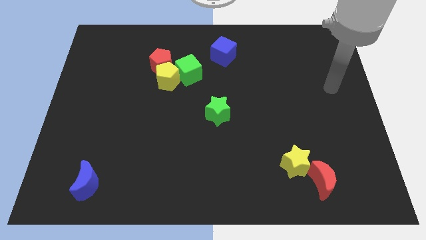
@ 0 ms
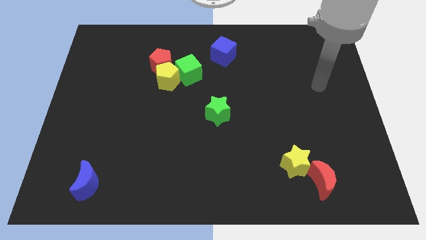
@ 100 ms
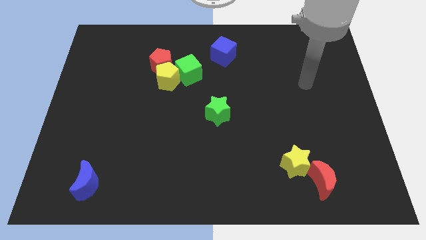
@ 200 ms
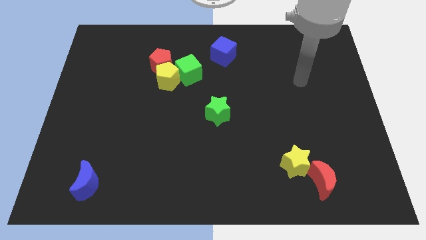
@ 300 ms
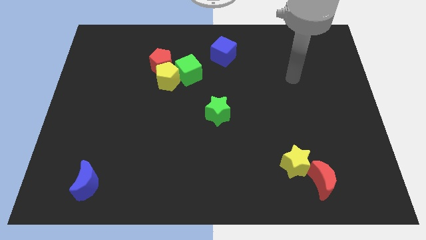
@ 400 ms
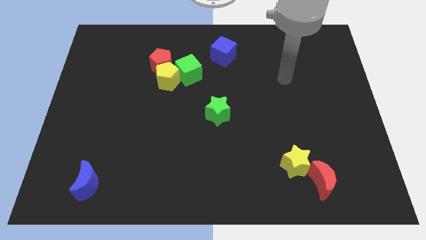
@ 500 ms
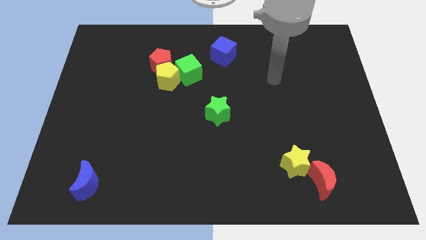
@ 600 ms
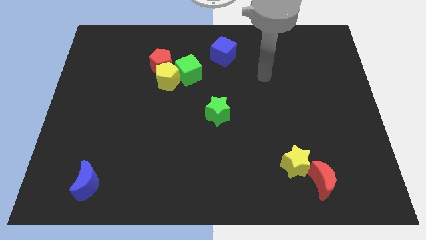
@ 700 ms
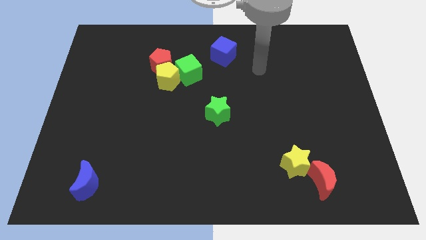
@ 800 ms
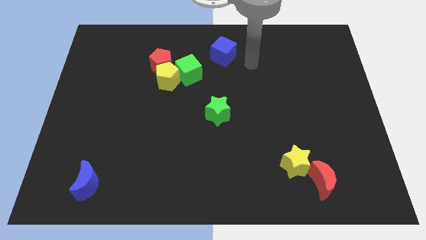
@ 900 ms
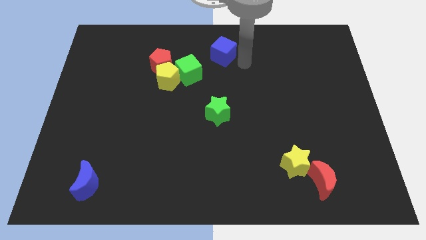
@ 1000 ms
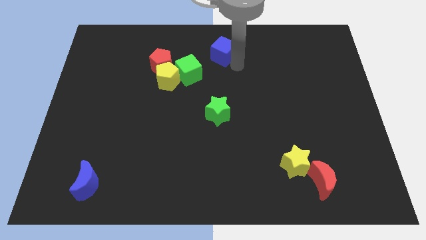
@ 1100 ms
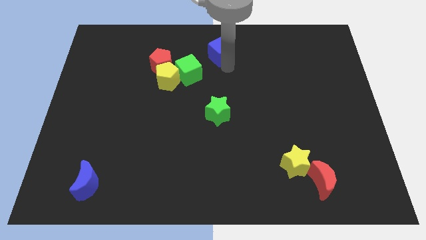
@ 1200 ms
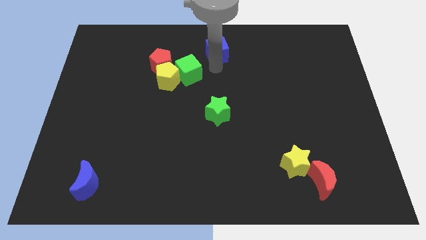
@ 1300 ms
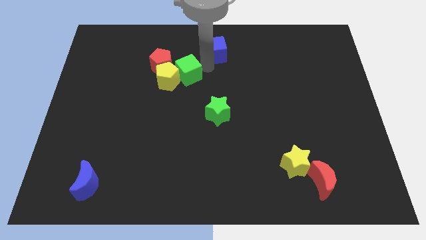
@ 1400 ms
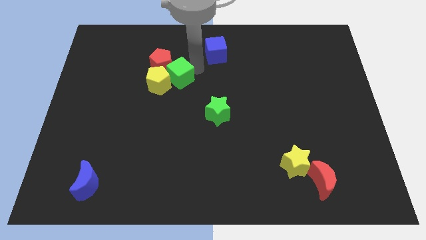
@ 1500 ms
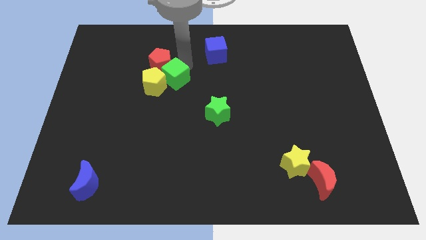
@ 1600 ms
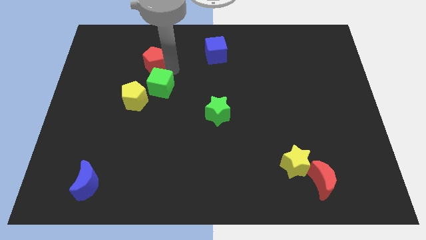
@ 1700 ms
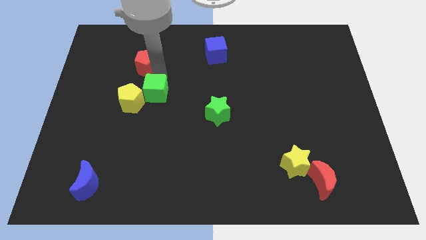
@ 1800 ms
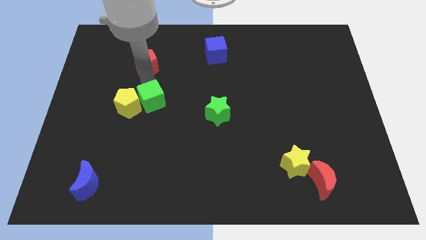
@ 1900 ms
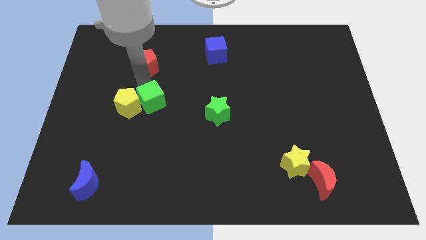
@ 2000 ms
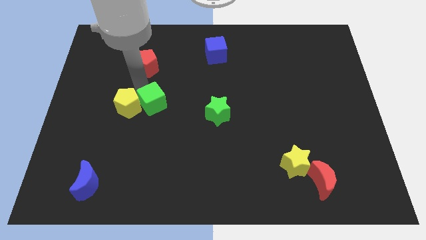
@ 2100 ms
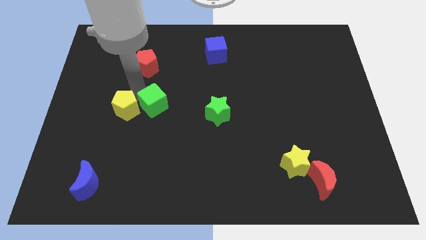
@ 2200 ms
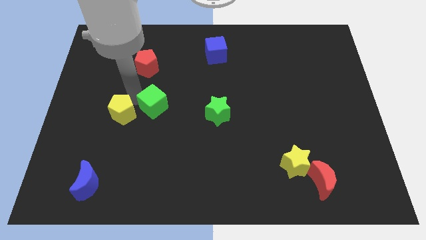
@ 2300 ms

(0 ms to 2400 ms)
separate the yellow pentagon from the red pentagon and green cube

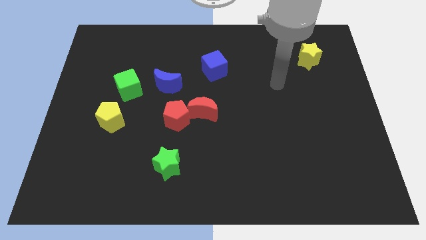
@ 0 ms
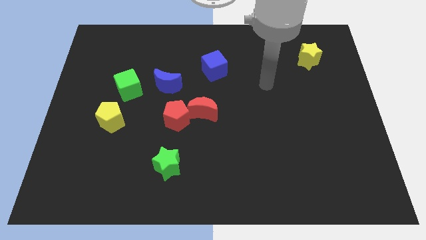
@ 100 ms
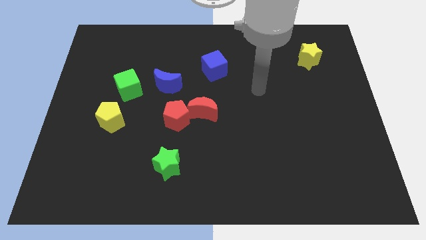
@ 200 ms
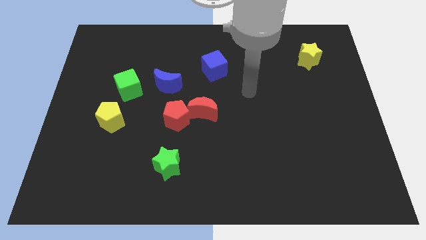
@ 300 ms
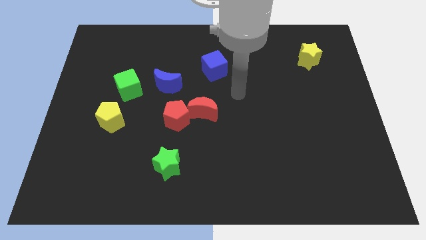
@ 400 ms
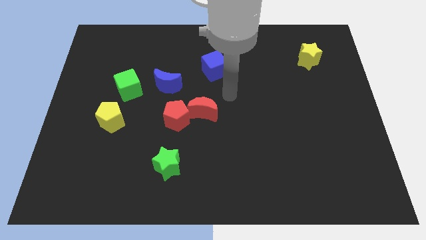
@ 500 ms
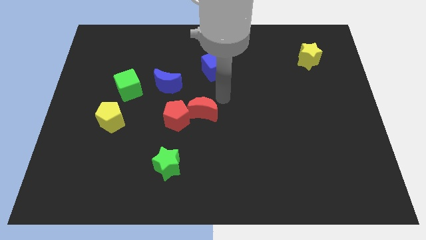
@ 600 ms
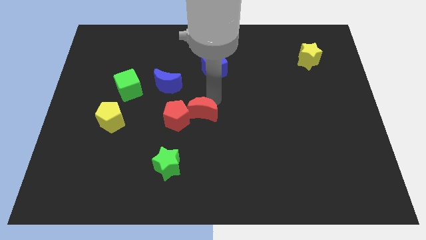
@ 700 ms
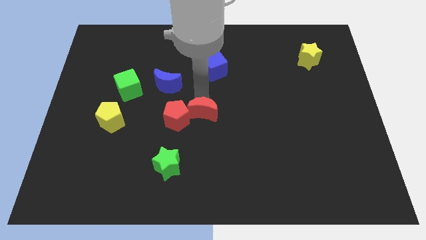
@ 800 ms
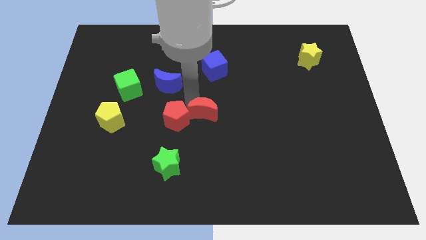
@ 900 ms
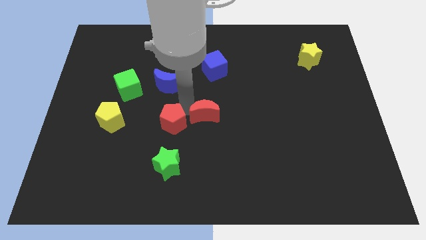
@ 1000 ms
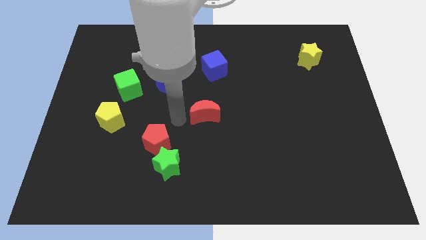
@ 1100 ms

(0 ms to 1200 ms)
move the red moon away from the red pentagon

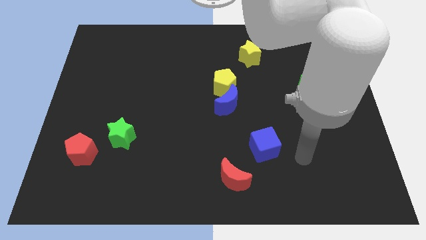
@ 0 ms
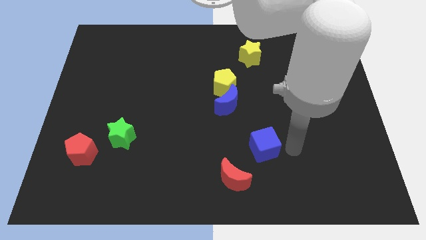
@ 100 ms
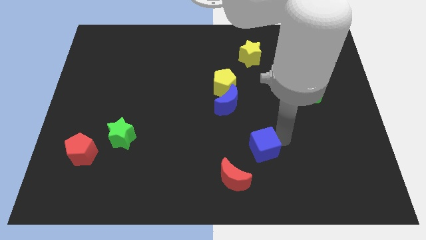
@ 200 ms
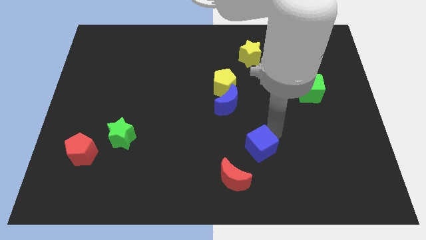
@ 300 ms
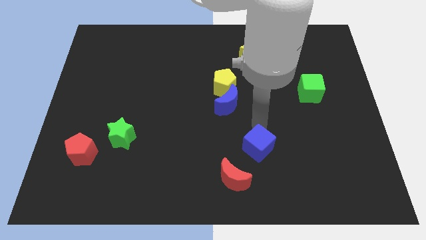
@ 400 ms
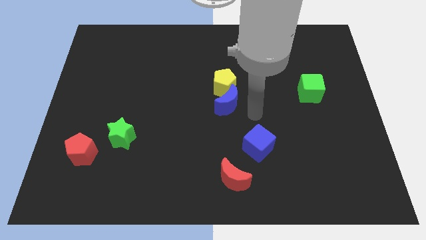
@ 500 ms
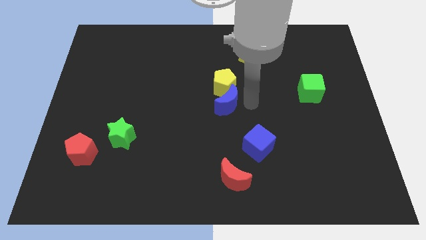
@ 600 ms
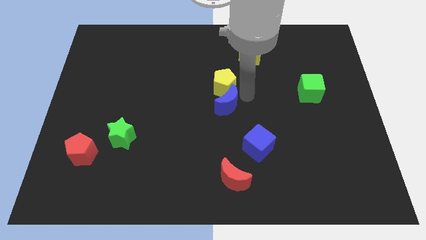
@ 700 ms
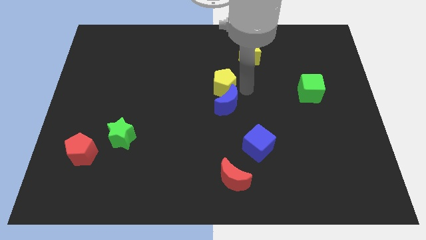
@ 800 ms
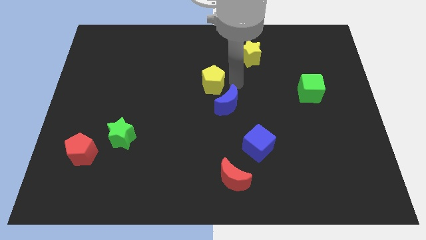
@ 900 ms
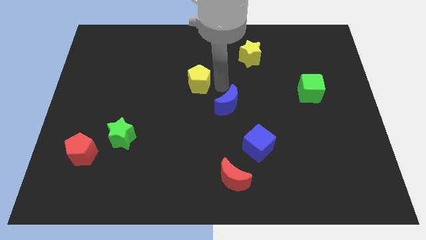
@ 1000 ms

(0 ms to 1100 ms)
pull the blue moon apart from the yellow pentagon

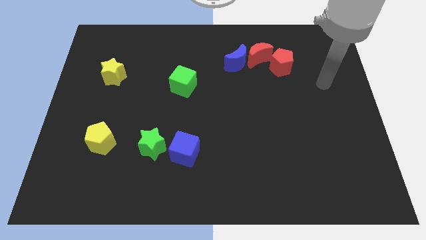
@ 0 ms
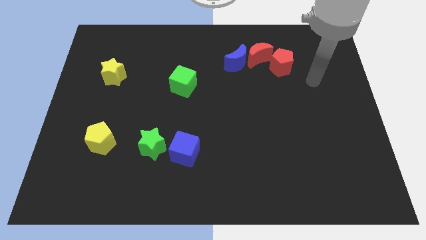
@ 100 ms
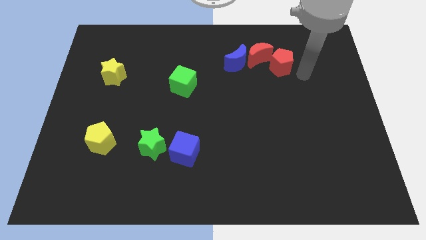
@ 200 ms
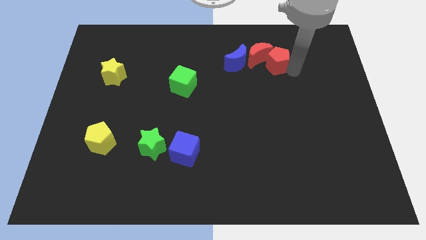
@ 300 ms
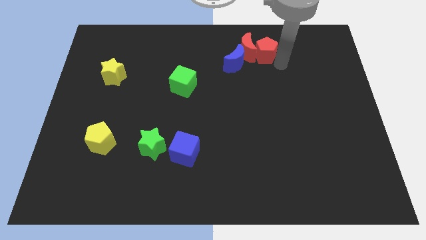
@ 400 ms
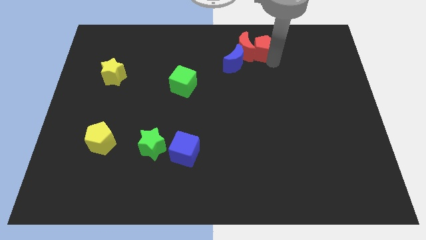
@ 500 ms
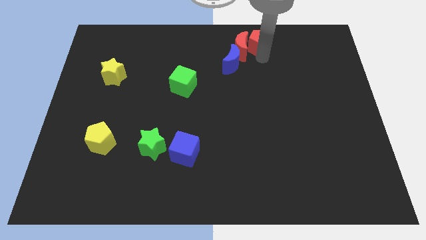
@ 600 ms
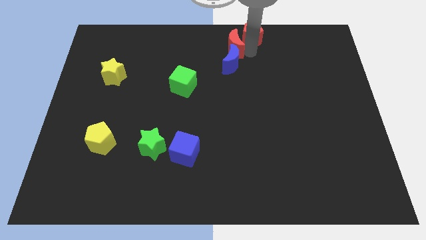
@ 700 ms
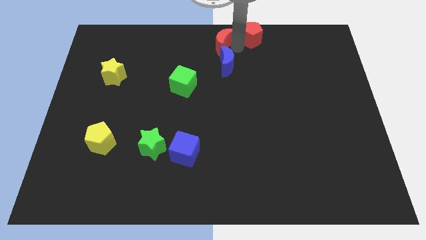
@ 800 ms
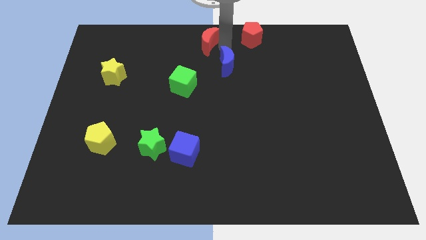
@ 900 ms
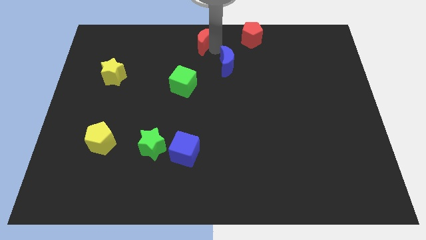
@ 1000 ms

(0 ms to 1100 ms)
move the blue moon away from the red moon

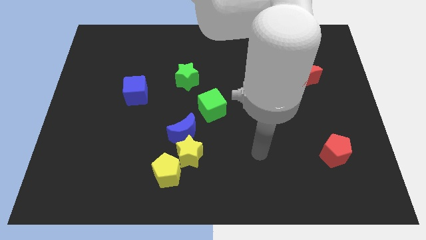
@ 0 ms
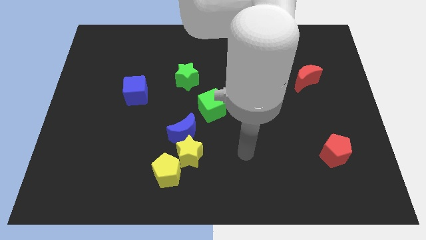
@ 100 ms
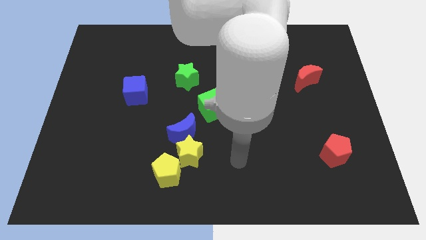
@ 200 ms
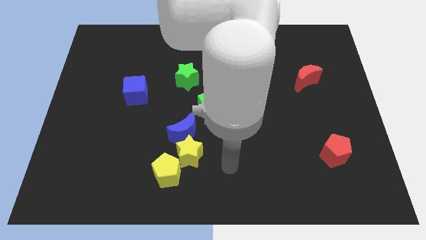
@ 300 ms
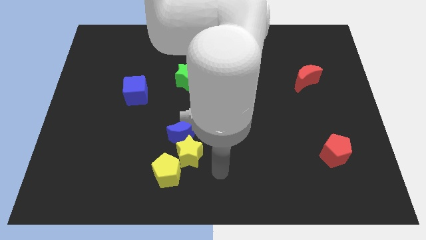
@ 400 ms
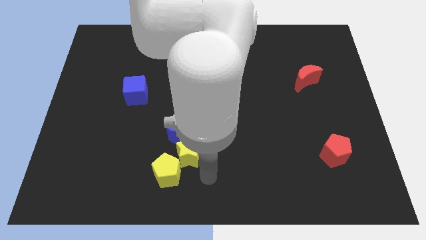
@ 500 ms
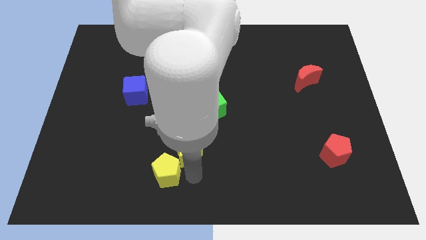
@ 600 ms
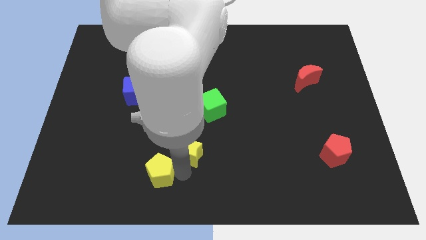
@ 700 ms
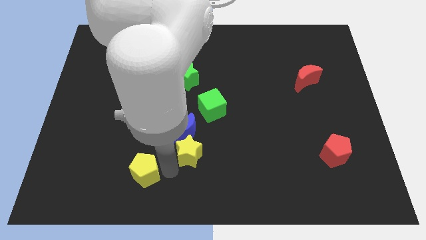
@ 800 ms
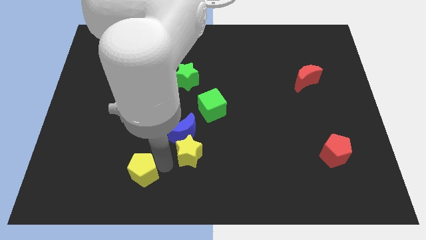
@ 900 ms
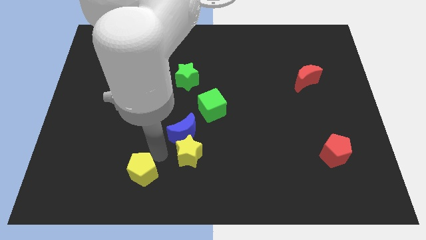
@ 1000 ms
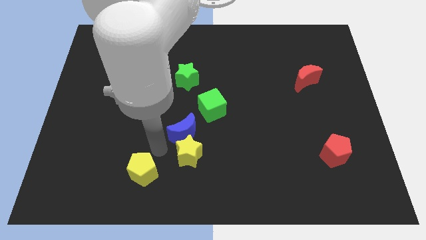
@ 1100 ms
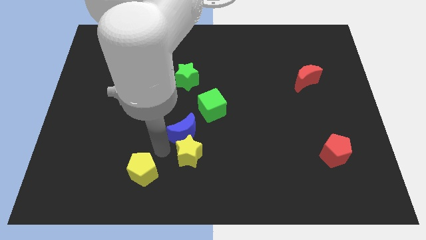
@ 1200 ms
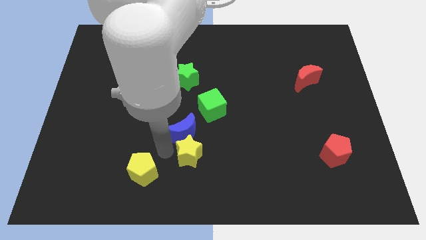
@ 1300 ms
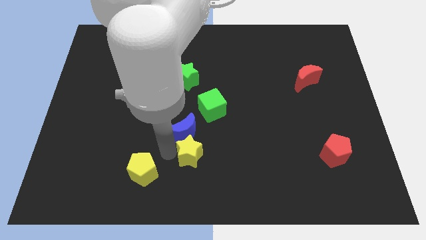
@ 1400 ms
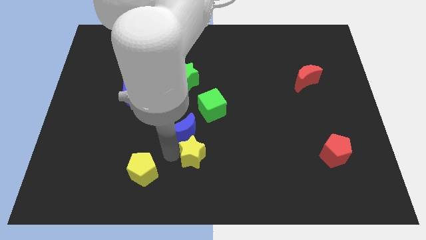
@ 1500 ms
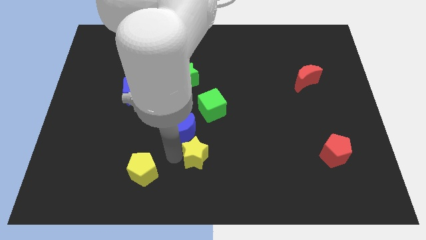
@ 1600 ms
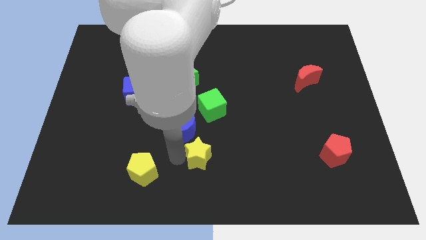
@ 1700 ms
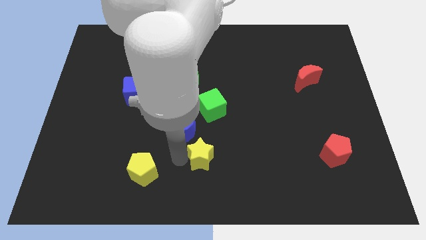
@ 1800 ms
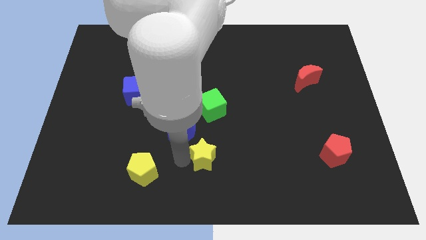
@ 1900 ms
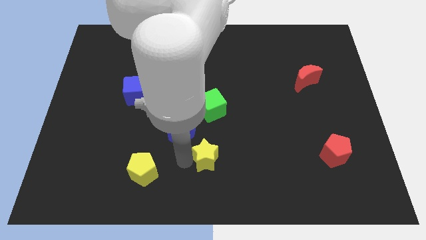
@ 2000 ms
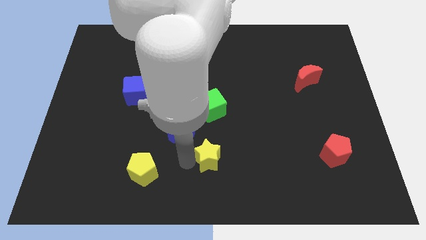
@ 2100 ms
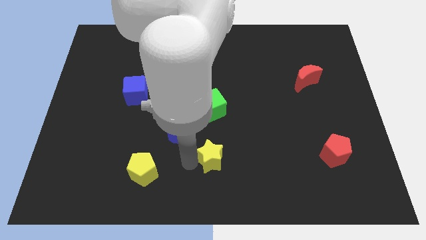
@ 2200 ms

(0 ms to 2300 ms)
pull the yellow star apart from the blue moon and yellow pentagon

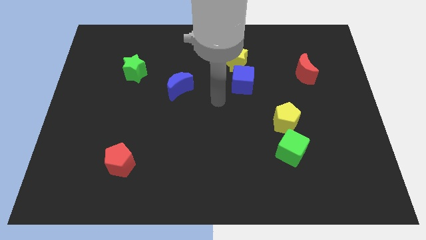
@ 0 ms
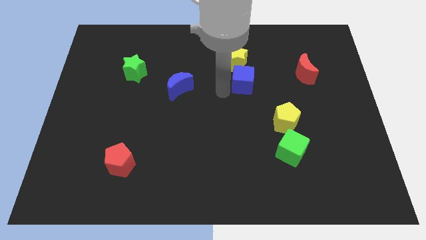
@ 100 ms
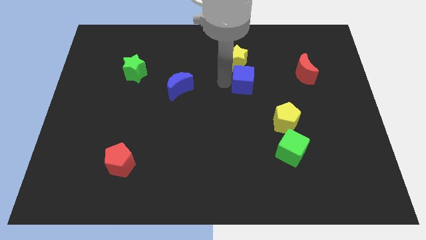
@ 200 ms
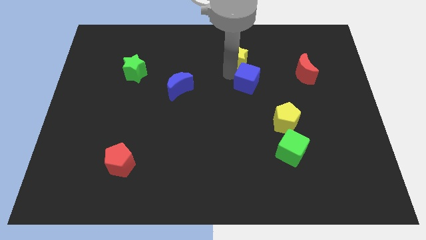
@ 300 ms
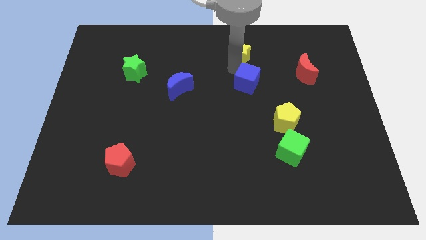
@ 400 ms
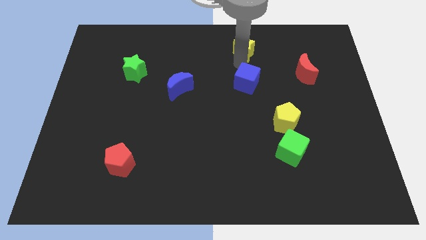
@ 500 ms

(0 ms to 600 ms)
move the blue cube away from the yellow star

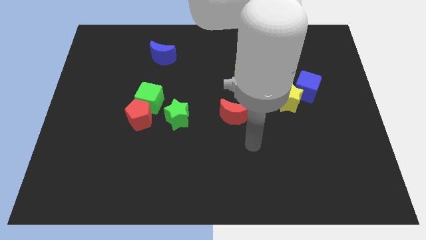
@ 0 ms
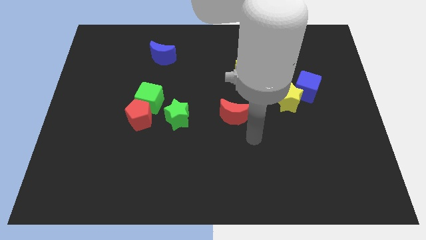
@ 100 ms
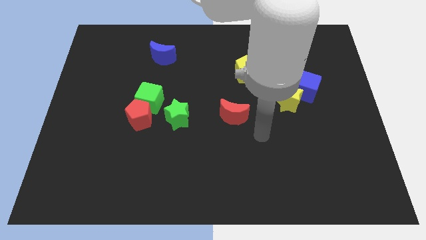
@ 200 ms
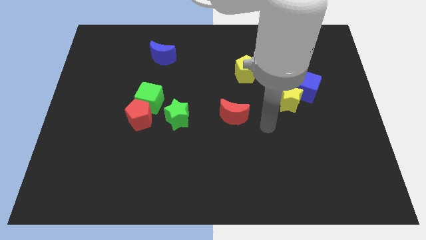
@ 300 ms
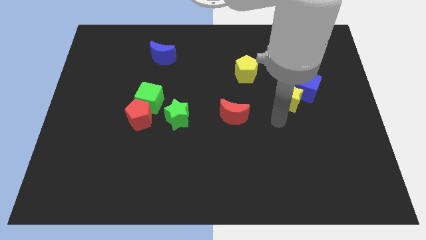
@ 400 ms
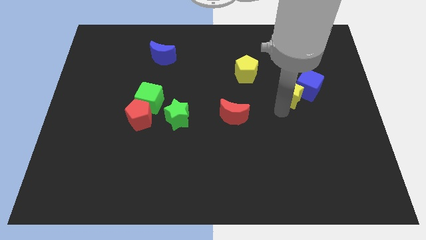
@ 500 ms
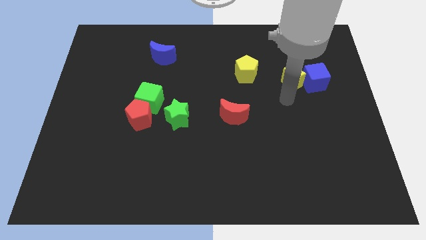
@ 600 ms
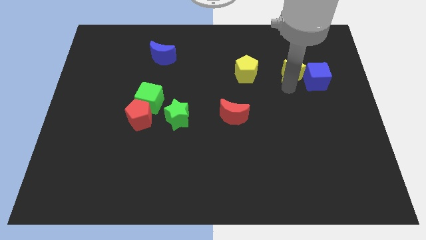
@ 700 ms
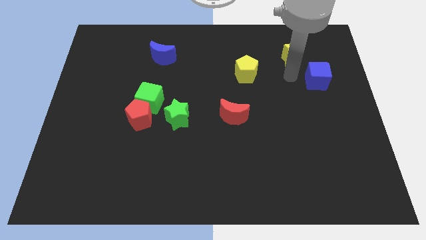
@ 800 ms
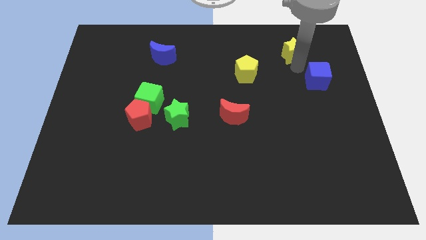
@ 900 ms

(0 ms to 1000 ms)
separate the blue cube from the yellow star
